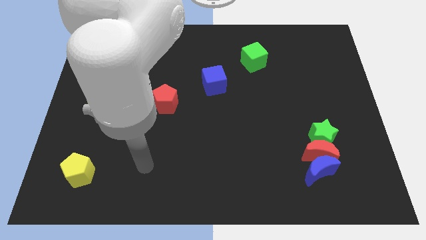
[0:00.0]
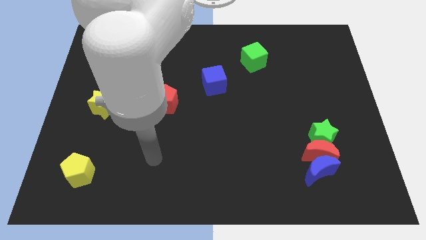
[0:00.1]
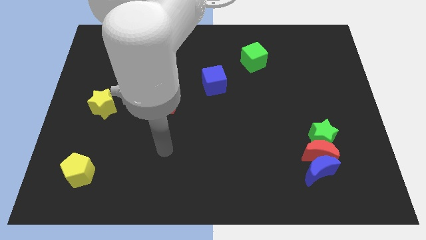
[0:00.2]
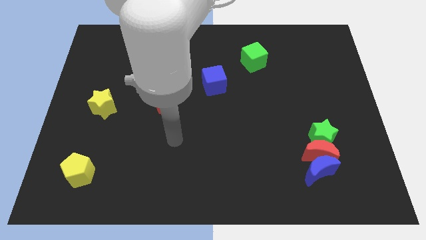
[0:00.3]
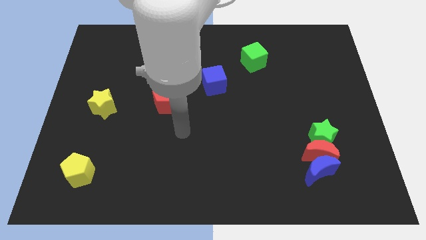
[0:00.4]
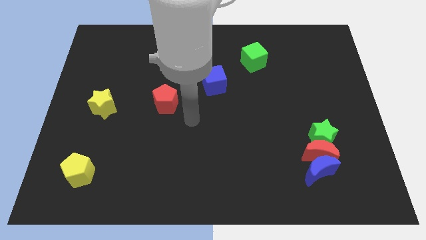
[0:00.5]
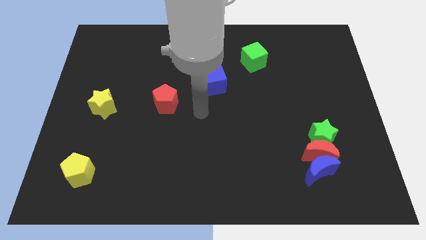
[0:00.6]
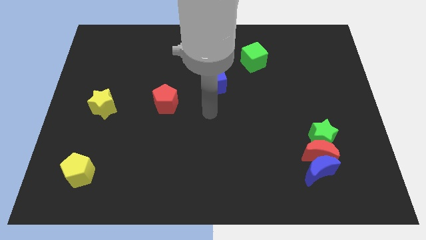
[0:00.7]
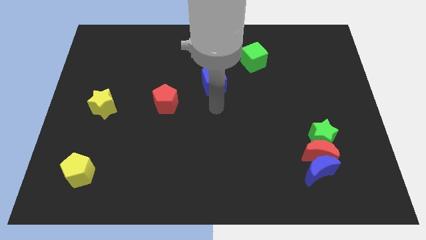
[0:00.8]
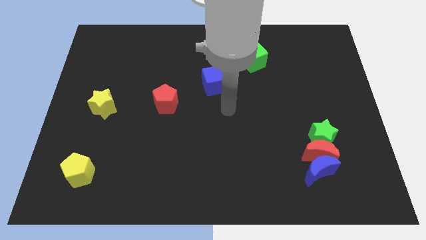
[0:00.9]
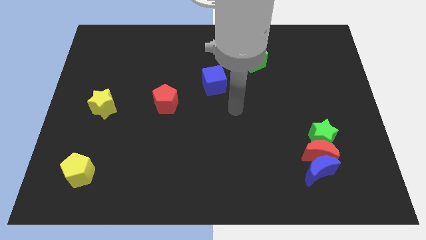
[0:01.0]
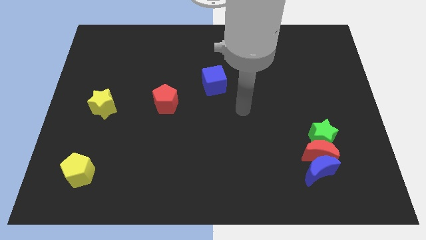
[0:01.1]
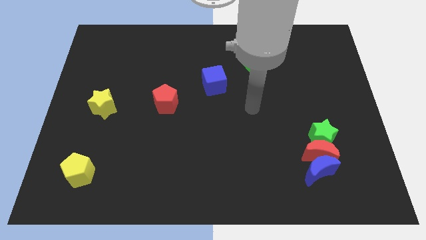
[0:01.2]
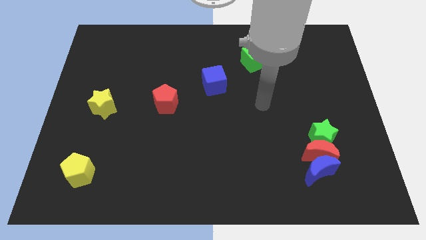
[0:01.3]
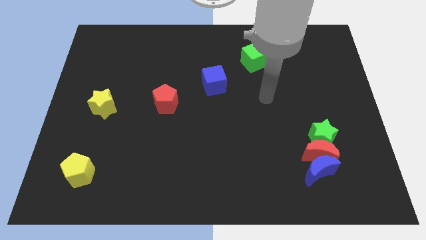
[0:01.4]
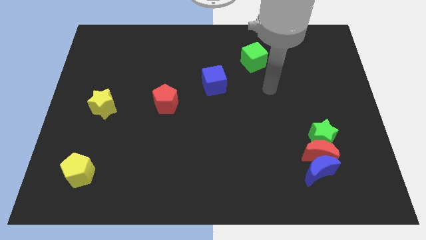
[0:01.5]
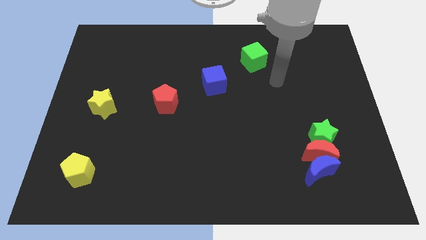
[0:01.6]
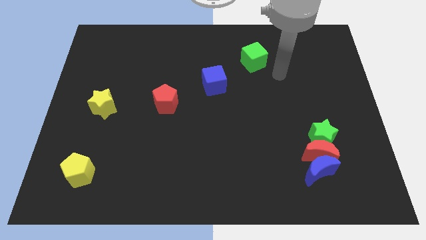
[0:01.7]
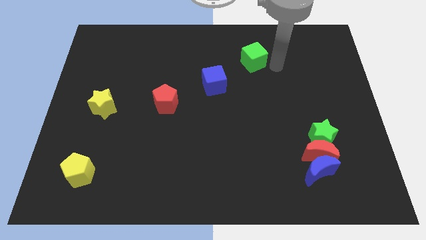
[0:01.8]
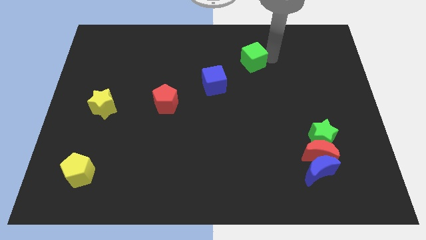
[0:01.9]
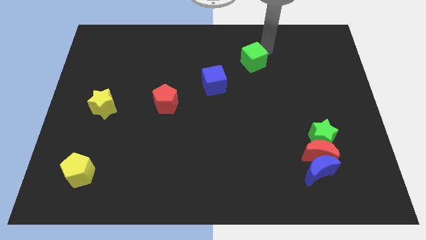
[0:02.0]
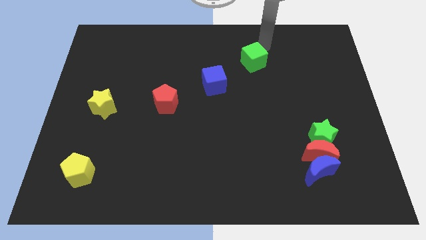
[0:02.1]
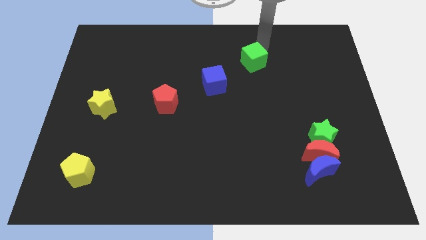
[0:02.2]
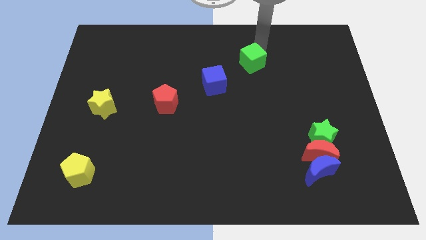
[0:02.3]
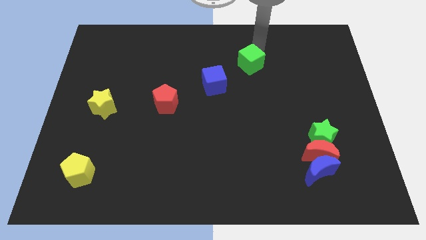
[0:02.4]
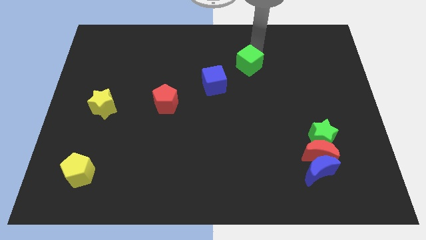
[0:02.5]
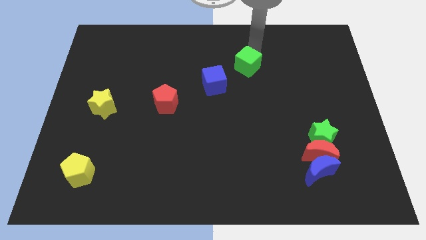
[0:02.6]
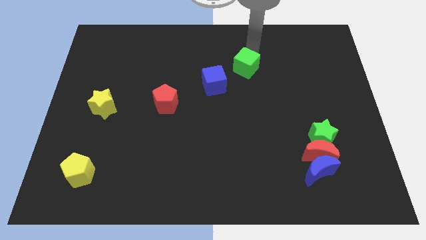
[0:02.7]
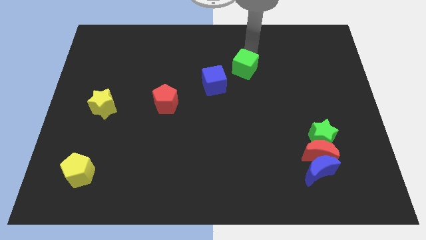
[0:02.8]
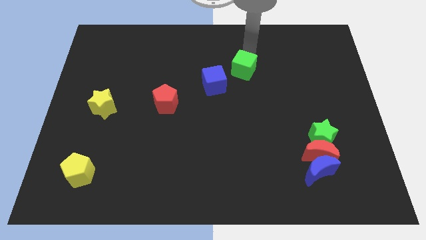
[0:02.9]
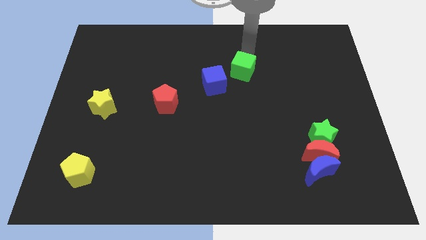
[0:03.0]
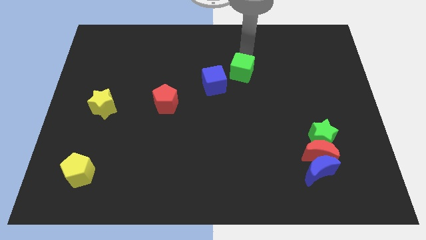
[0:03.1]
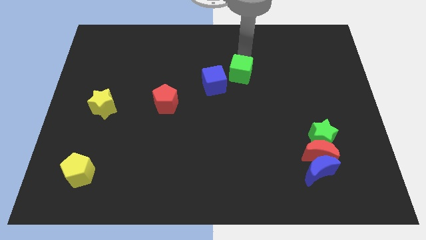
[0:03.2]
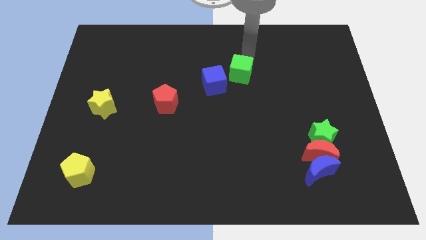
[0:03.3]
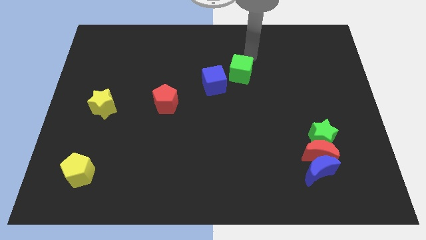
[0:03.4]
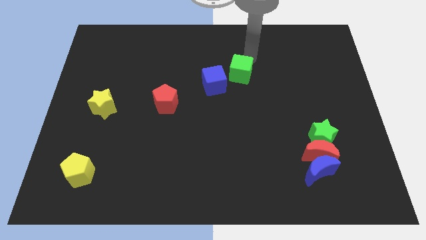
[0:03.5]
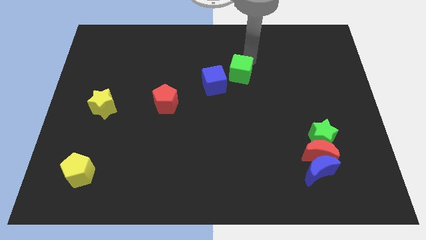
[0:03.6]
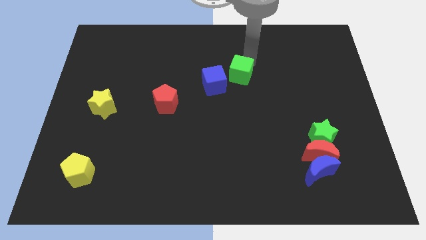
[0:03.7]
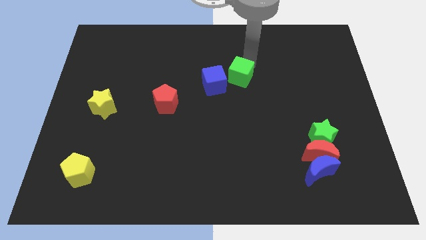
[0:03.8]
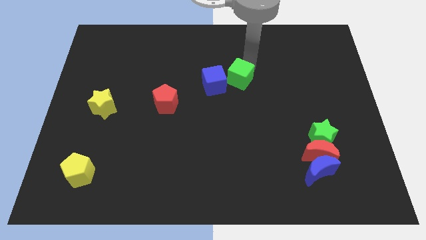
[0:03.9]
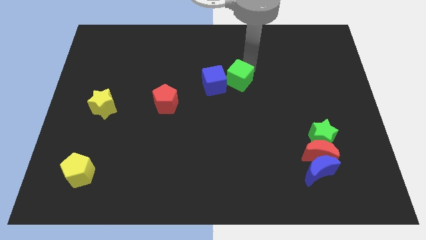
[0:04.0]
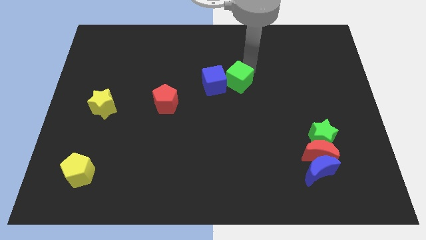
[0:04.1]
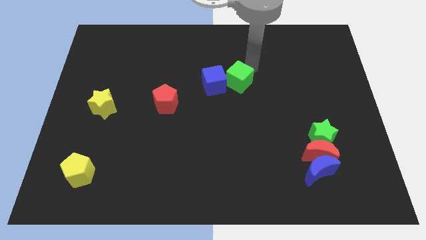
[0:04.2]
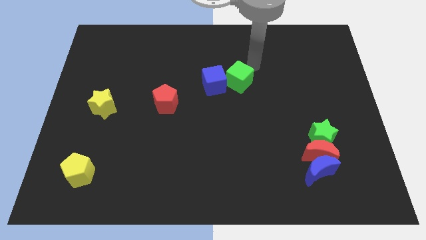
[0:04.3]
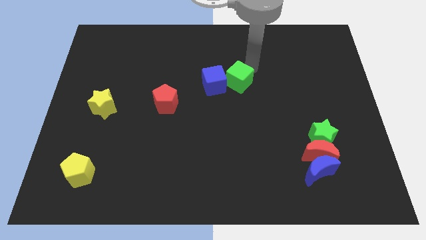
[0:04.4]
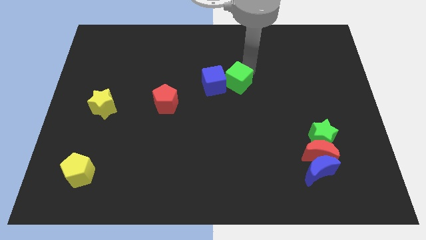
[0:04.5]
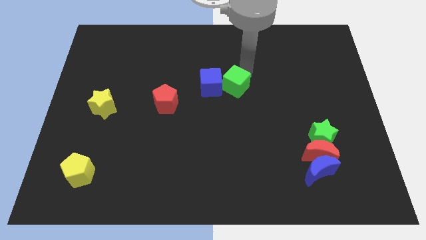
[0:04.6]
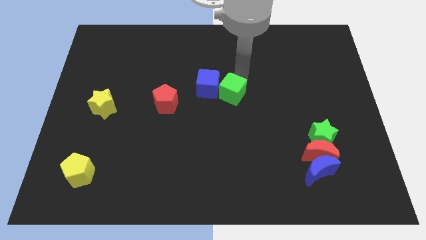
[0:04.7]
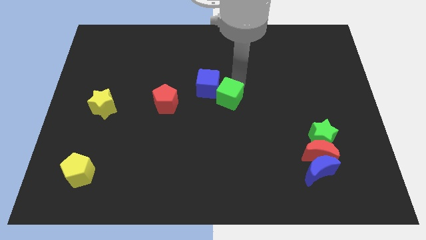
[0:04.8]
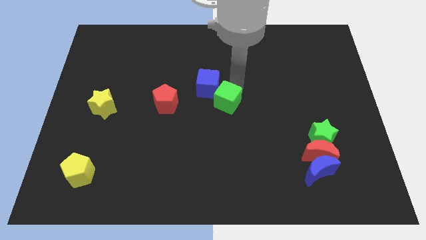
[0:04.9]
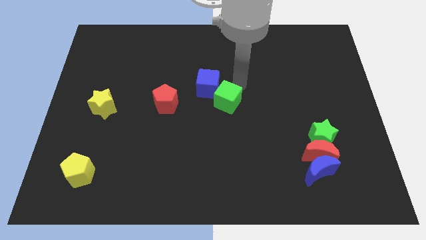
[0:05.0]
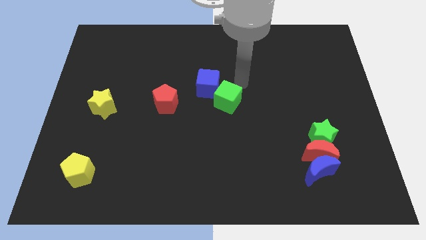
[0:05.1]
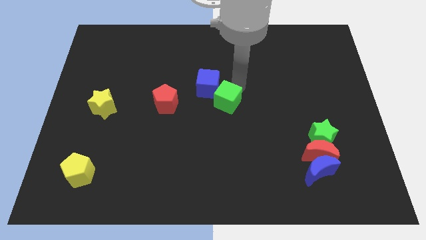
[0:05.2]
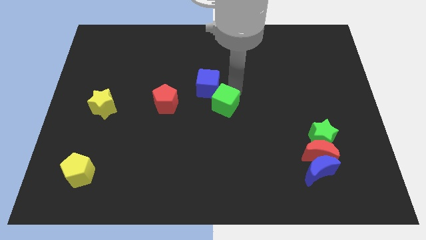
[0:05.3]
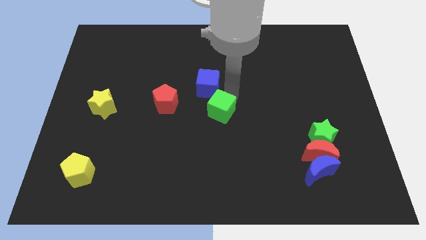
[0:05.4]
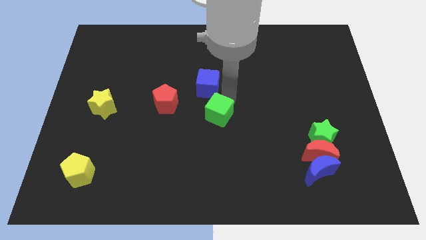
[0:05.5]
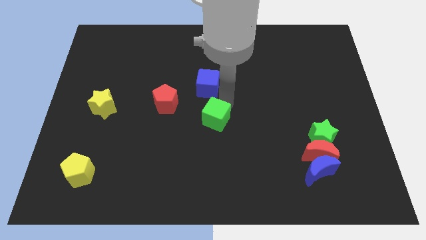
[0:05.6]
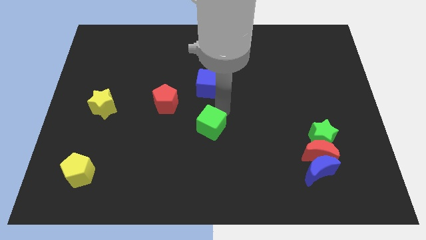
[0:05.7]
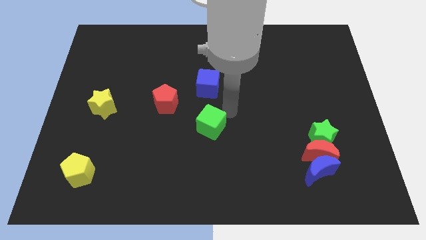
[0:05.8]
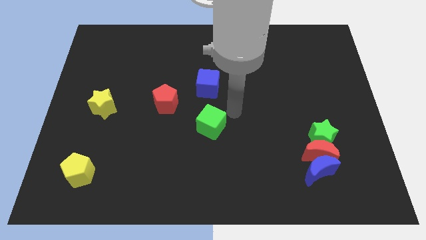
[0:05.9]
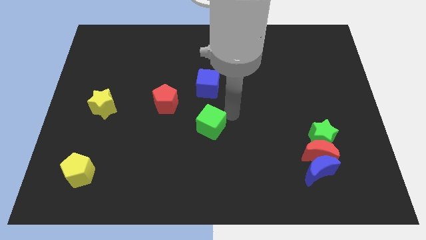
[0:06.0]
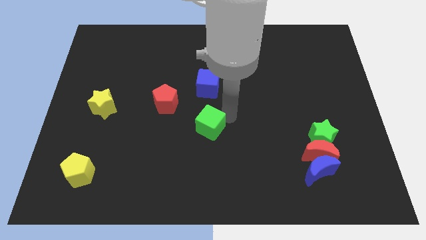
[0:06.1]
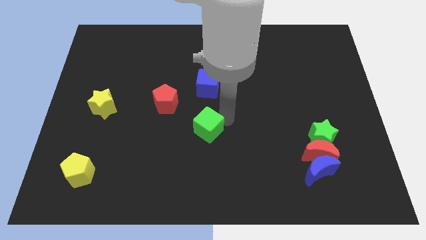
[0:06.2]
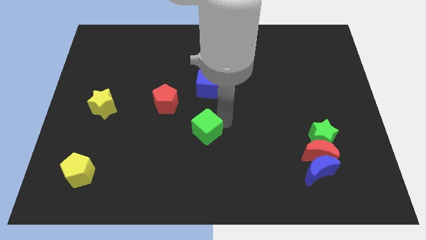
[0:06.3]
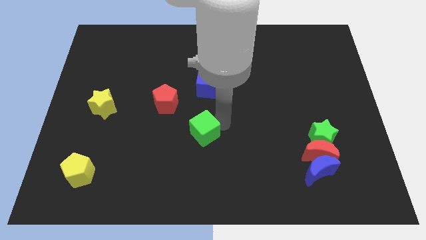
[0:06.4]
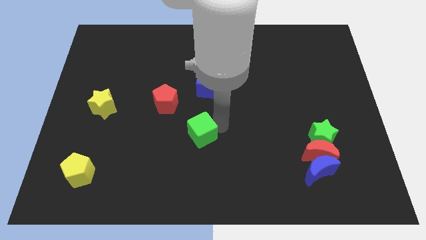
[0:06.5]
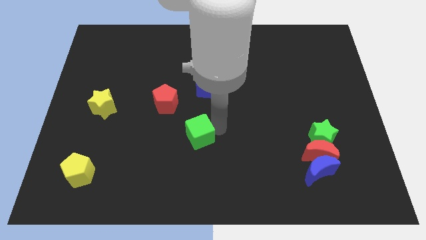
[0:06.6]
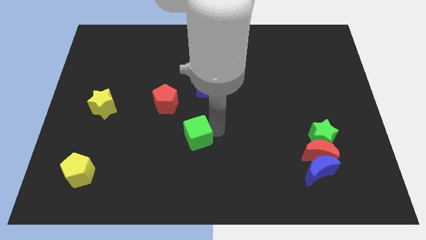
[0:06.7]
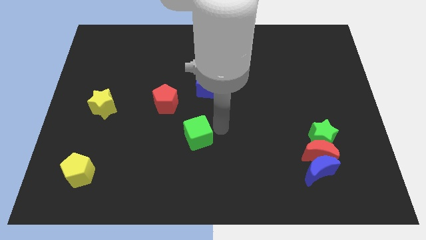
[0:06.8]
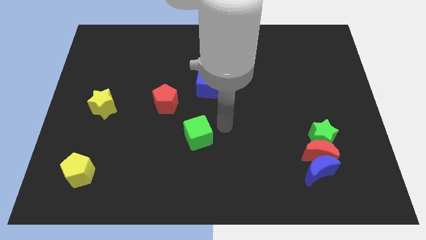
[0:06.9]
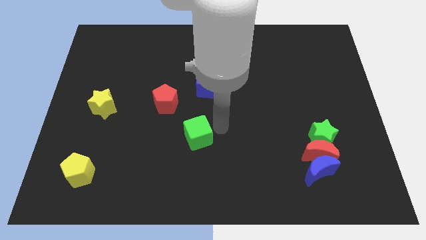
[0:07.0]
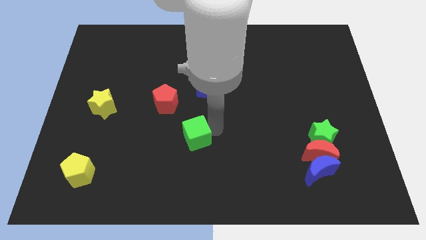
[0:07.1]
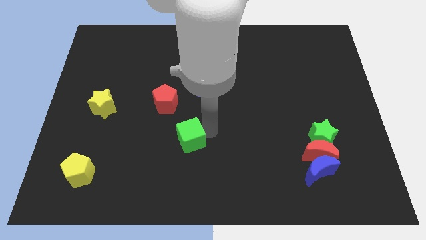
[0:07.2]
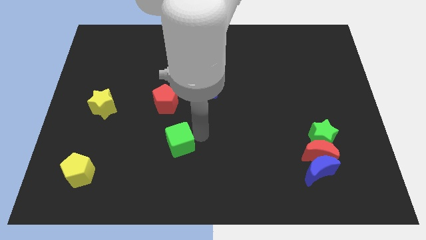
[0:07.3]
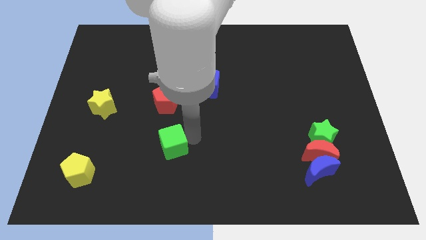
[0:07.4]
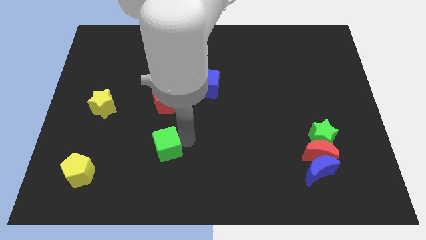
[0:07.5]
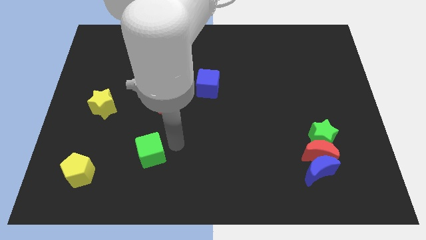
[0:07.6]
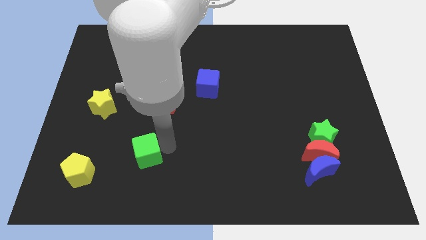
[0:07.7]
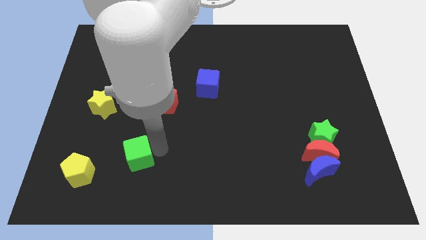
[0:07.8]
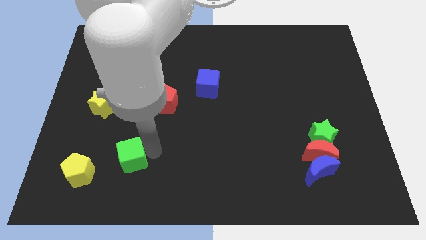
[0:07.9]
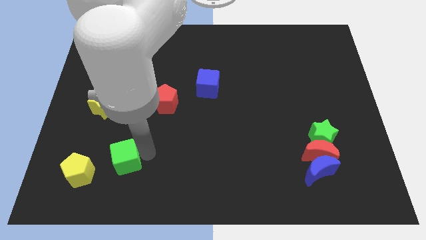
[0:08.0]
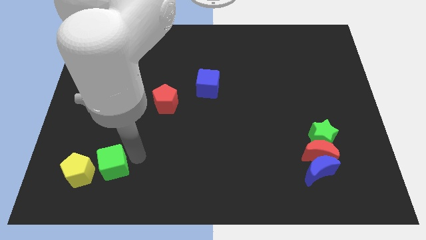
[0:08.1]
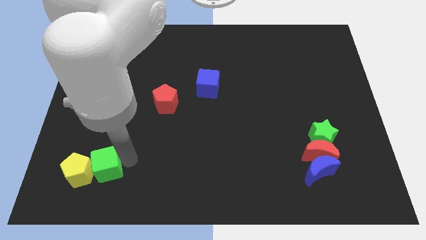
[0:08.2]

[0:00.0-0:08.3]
slide the green cube towards the yellow pentagon
